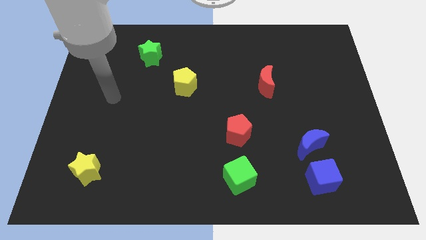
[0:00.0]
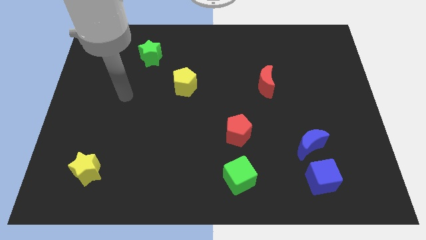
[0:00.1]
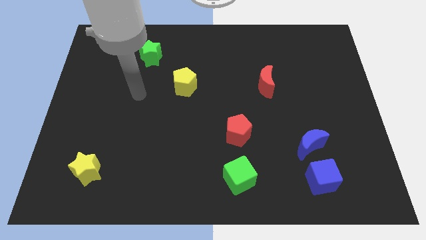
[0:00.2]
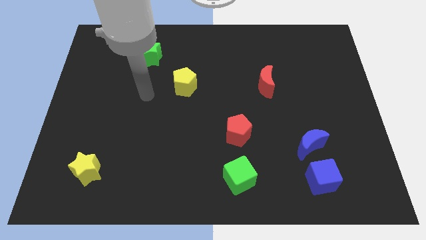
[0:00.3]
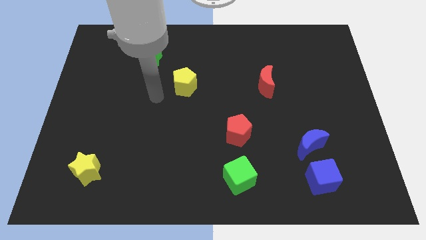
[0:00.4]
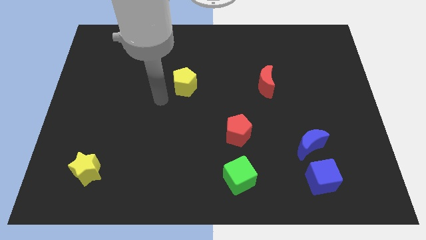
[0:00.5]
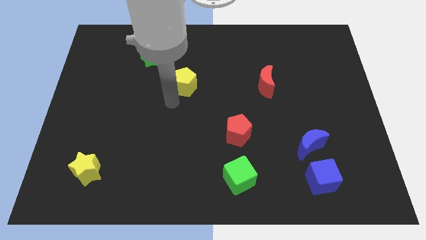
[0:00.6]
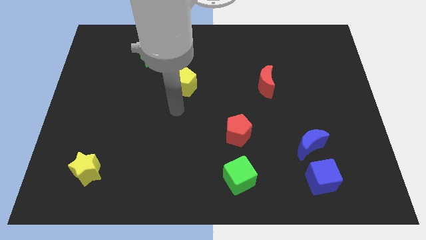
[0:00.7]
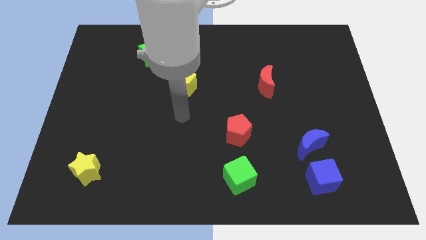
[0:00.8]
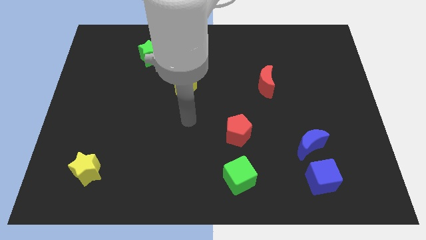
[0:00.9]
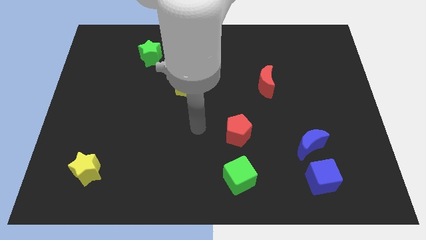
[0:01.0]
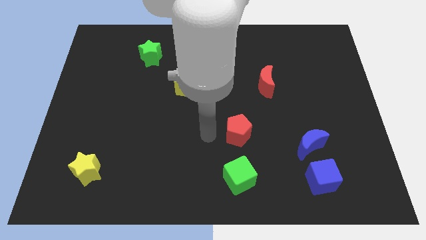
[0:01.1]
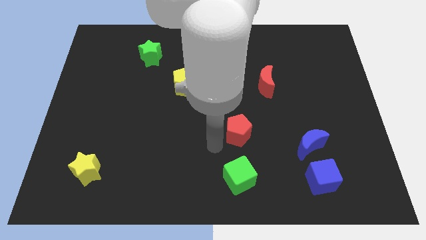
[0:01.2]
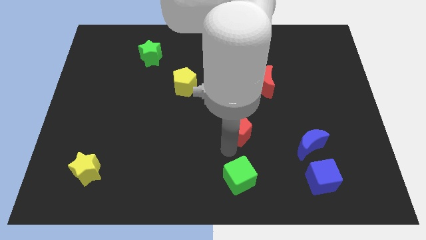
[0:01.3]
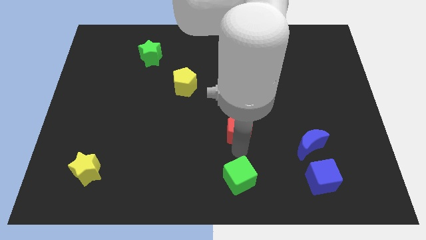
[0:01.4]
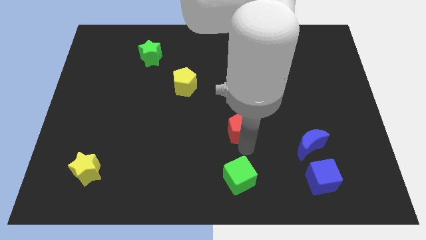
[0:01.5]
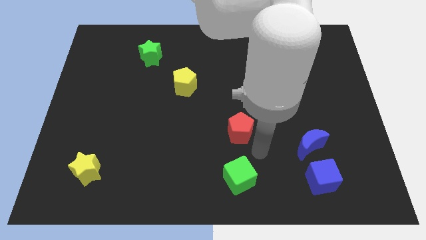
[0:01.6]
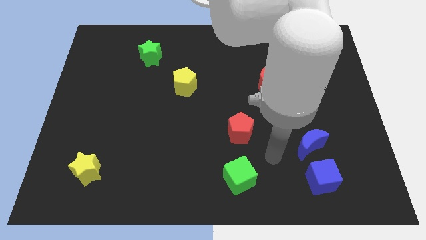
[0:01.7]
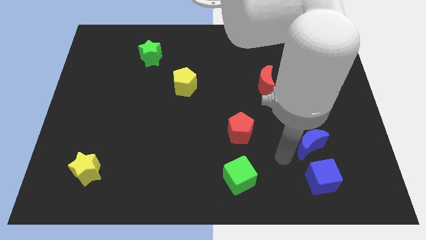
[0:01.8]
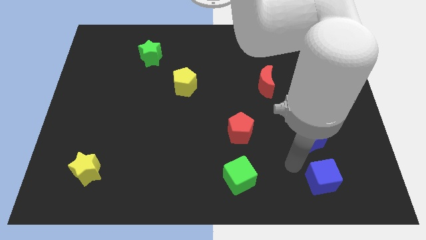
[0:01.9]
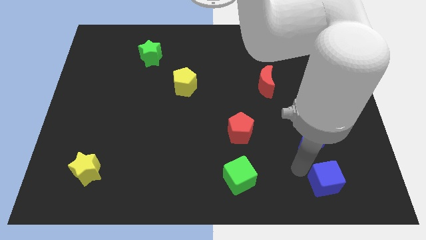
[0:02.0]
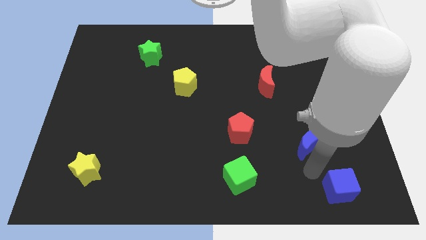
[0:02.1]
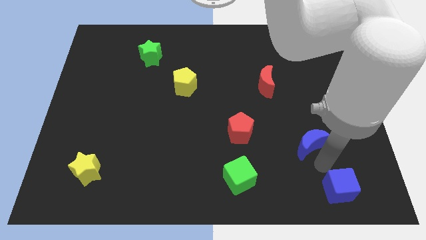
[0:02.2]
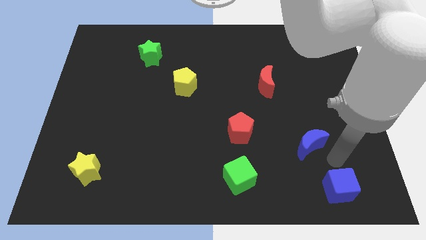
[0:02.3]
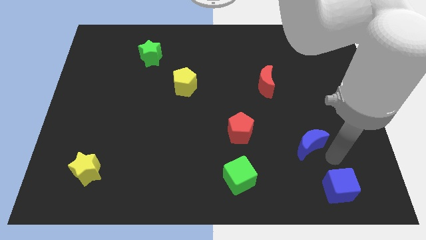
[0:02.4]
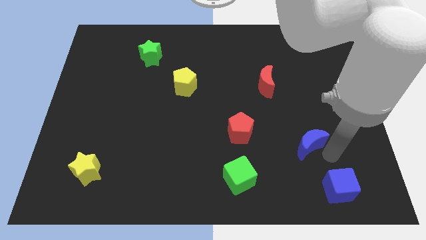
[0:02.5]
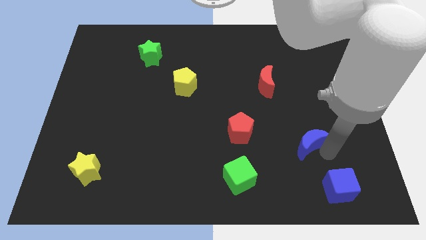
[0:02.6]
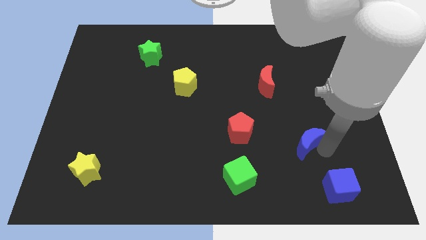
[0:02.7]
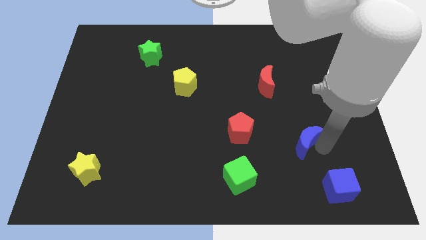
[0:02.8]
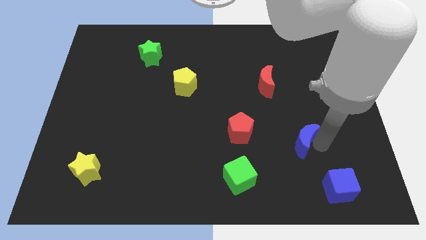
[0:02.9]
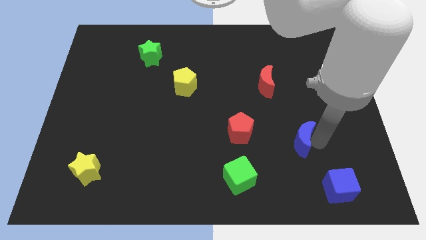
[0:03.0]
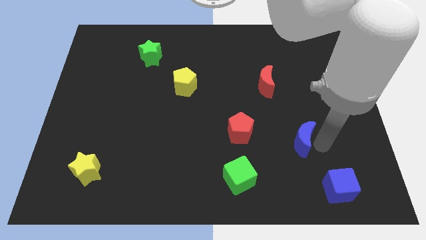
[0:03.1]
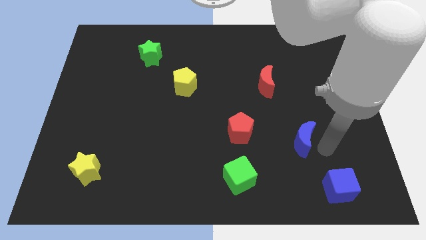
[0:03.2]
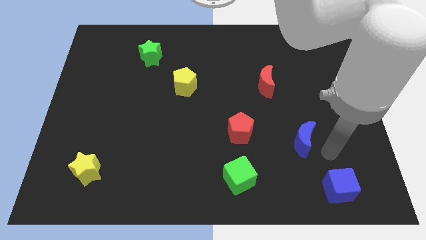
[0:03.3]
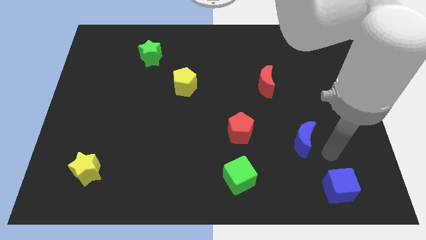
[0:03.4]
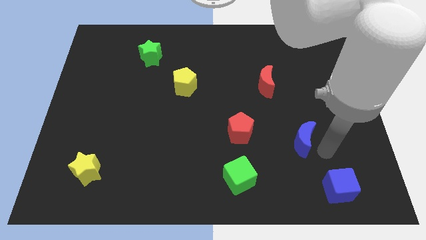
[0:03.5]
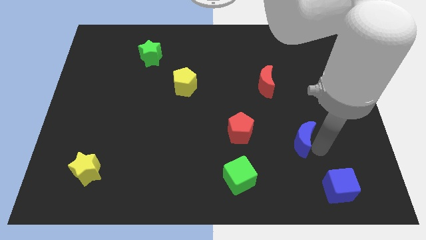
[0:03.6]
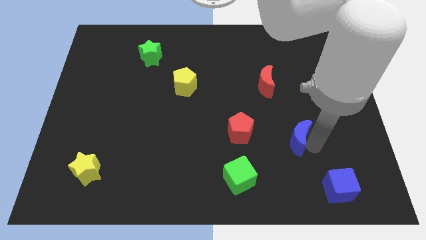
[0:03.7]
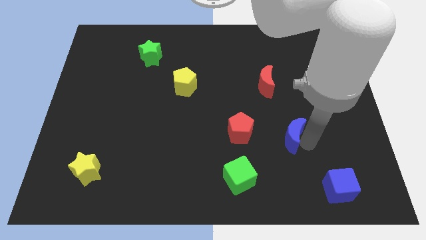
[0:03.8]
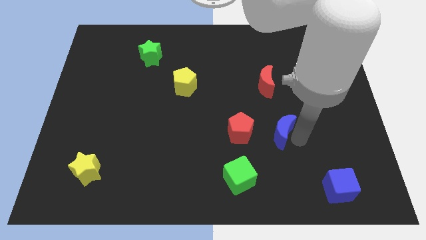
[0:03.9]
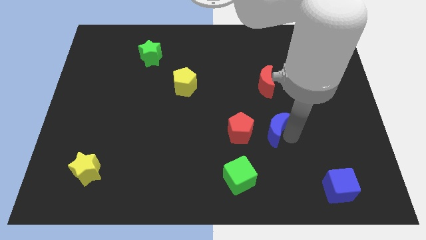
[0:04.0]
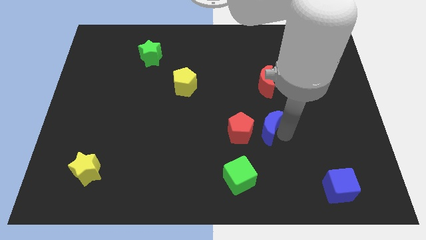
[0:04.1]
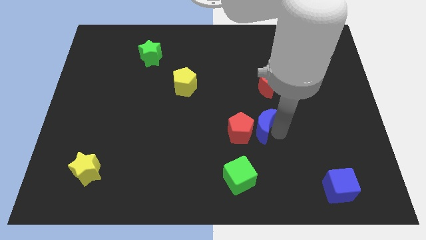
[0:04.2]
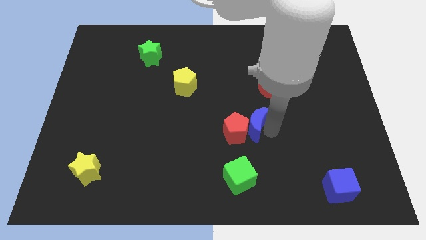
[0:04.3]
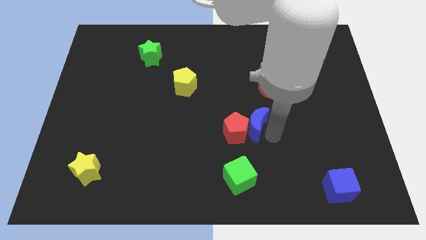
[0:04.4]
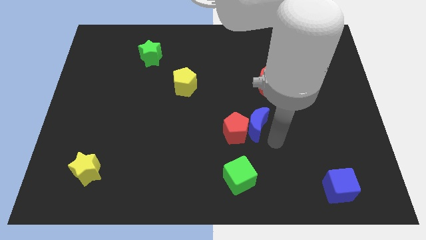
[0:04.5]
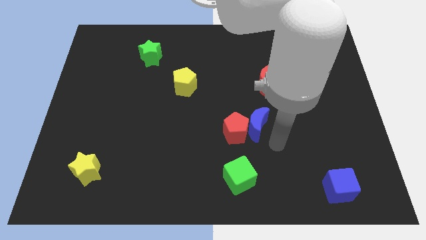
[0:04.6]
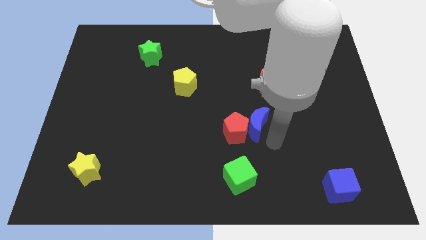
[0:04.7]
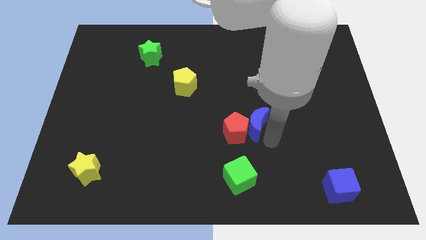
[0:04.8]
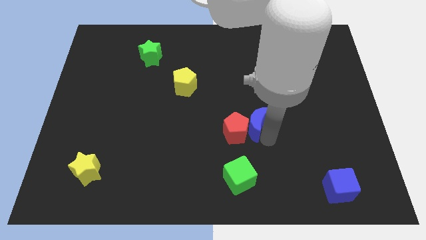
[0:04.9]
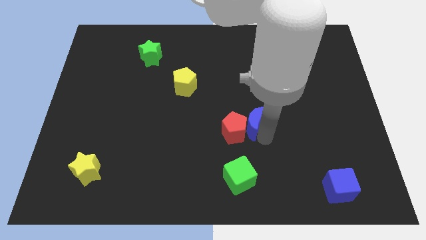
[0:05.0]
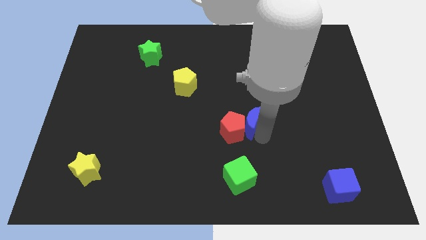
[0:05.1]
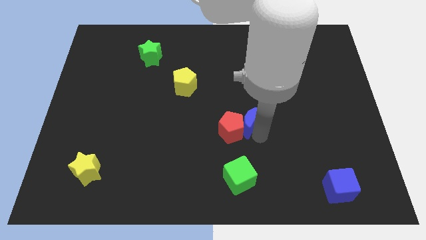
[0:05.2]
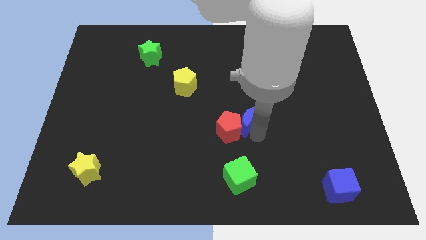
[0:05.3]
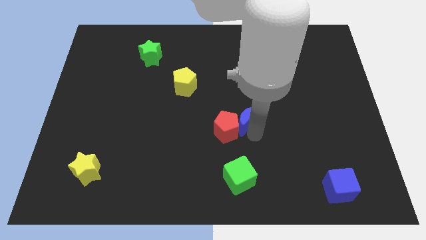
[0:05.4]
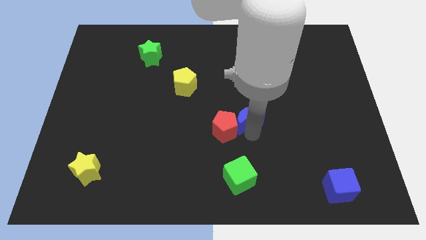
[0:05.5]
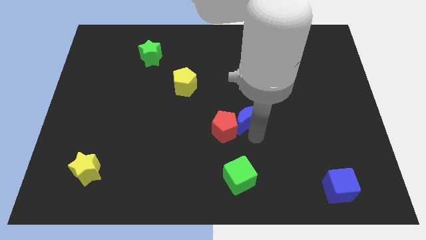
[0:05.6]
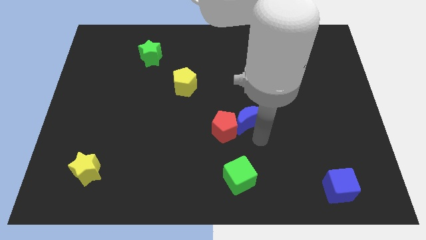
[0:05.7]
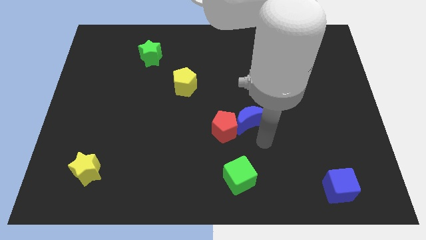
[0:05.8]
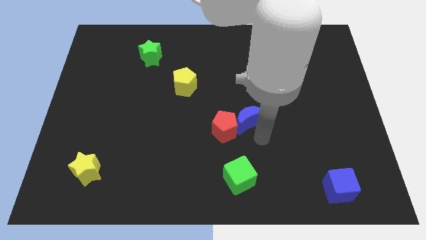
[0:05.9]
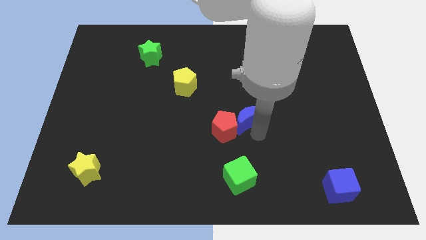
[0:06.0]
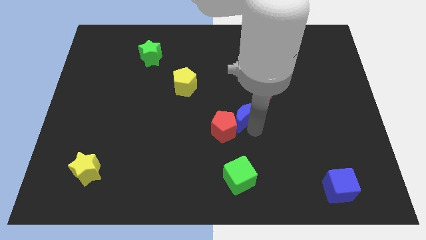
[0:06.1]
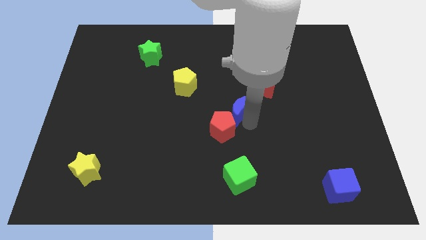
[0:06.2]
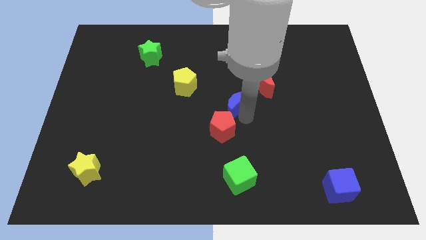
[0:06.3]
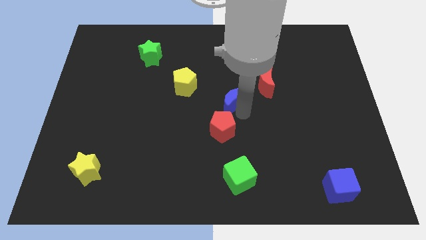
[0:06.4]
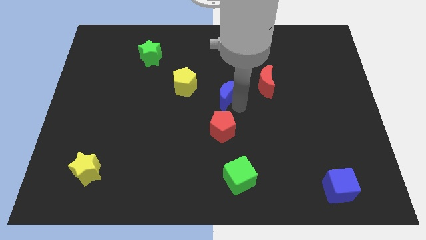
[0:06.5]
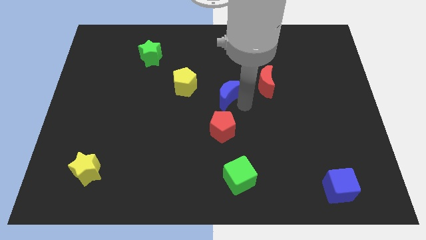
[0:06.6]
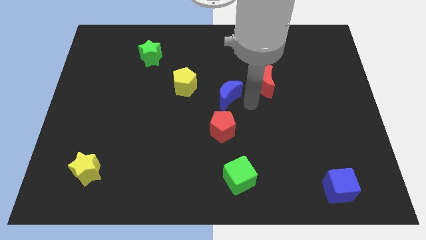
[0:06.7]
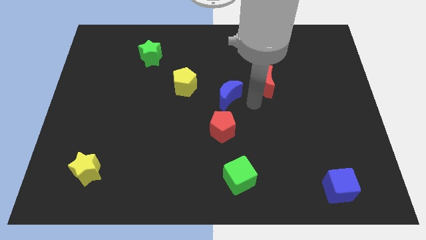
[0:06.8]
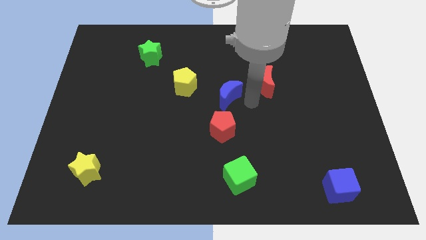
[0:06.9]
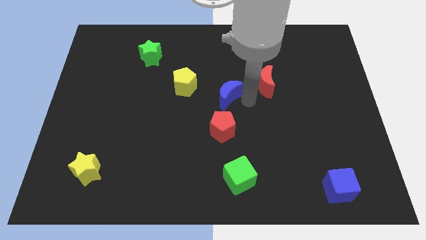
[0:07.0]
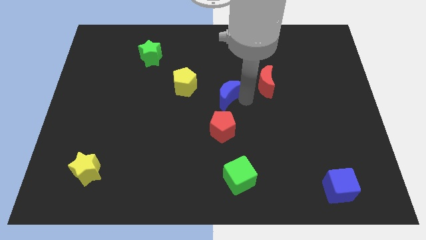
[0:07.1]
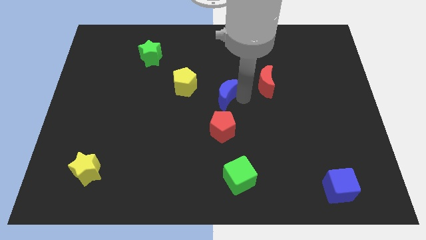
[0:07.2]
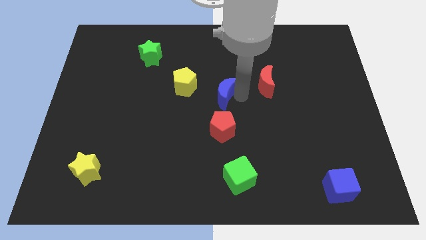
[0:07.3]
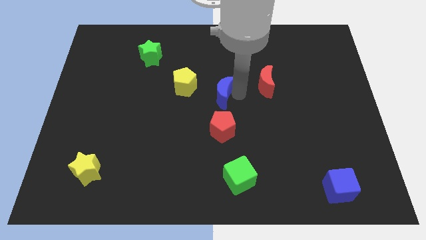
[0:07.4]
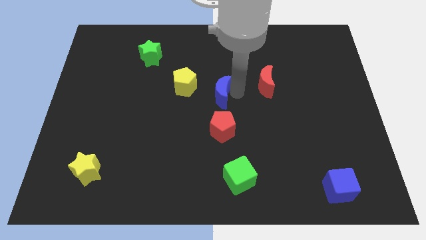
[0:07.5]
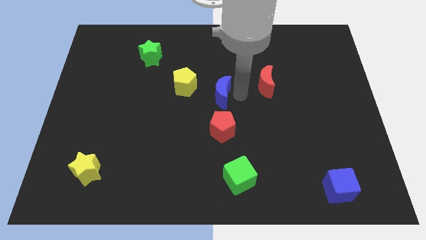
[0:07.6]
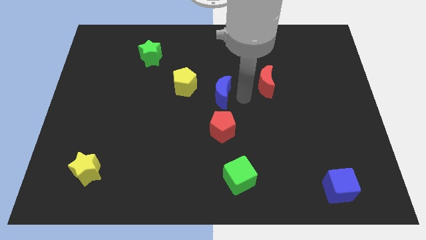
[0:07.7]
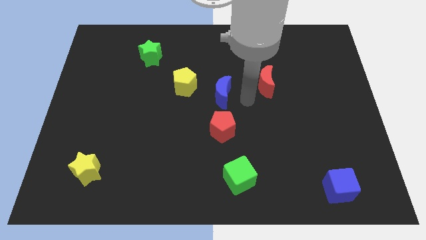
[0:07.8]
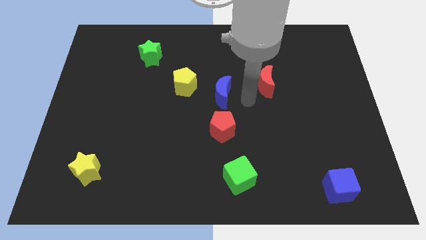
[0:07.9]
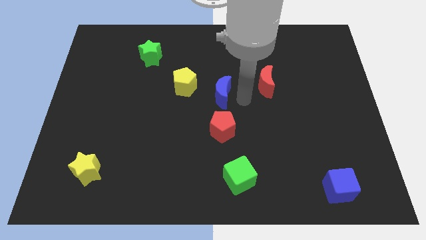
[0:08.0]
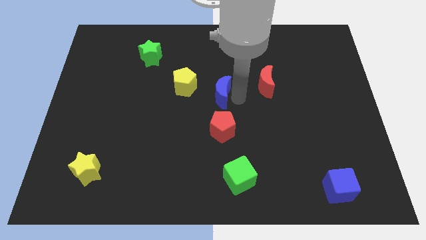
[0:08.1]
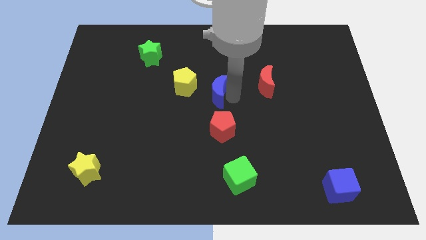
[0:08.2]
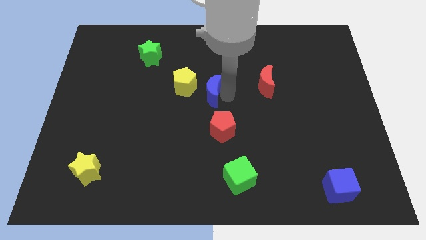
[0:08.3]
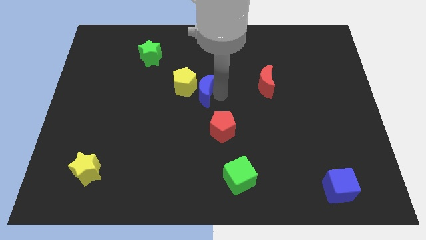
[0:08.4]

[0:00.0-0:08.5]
put the blue moon close to the yellow pentagon
